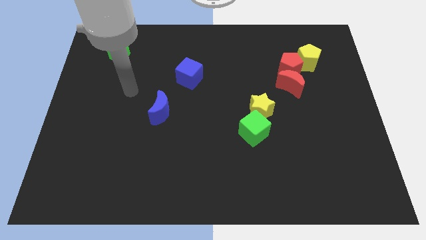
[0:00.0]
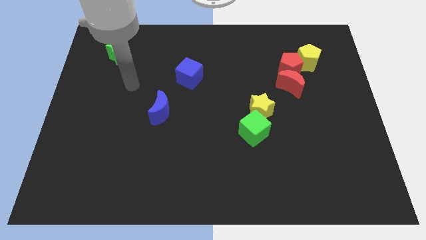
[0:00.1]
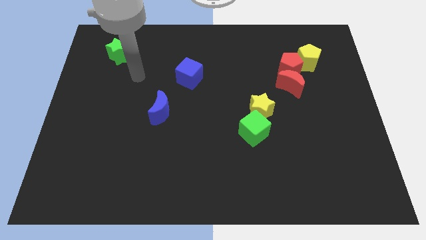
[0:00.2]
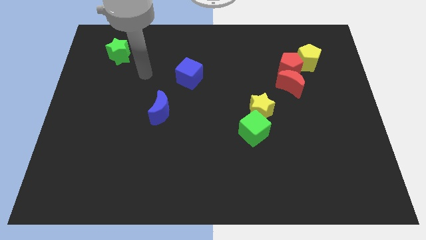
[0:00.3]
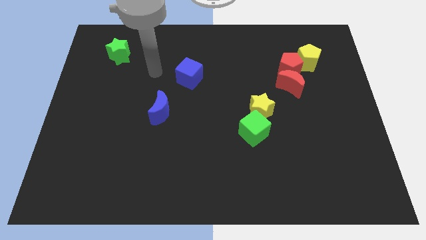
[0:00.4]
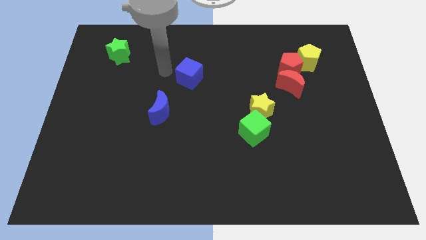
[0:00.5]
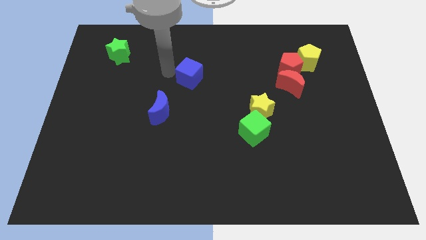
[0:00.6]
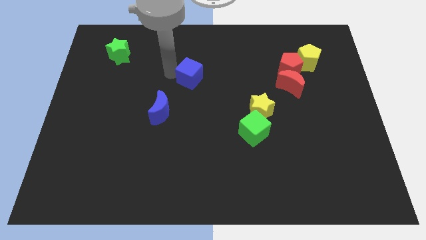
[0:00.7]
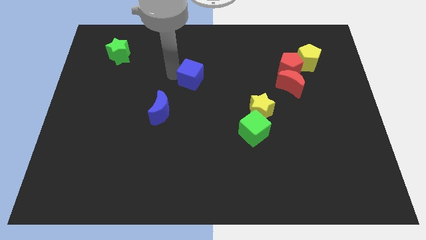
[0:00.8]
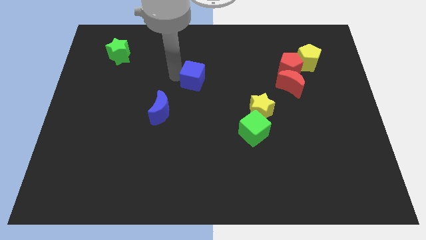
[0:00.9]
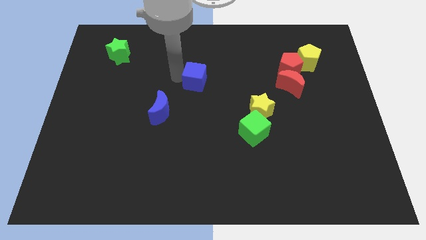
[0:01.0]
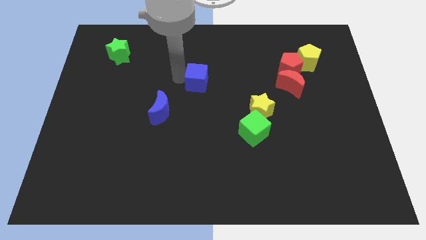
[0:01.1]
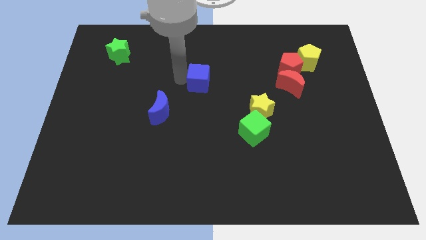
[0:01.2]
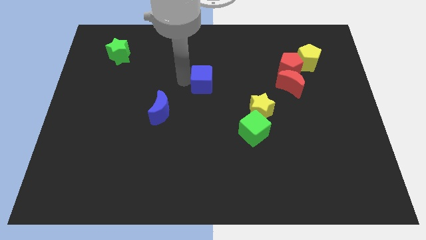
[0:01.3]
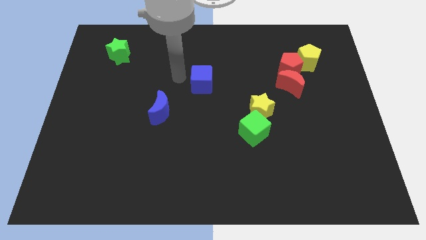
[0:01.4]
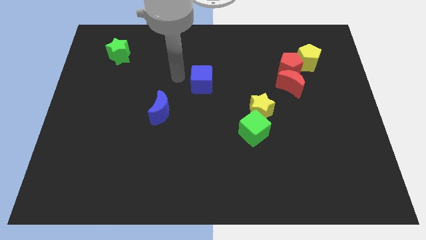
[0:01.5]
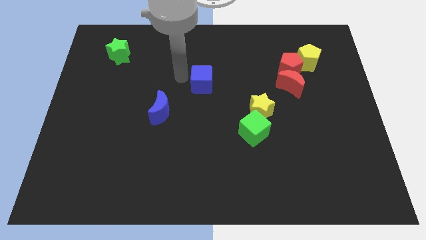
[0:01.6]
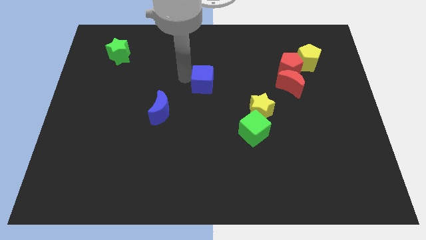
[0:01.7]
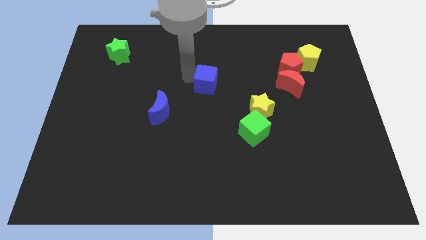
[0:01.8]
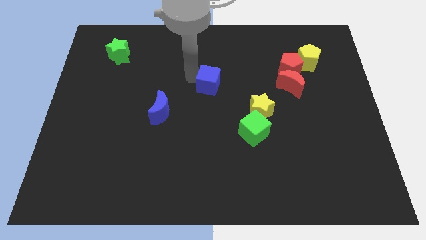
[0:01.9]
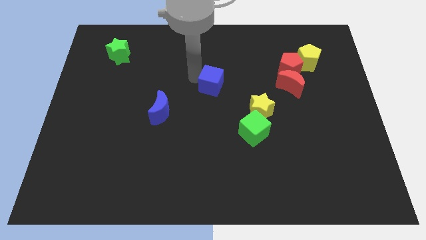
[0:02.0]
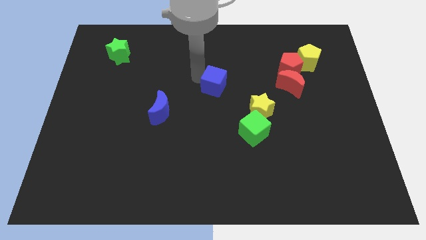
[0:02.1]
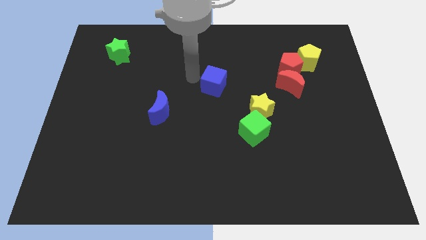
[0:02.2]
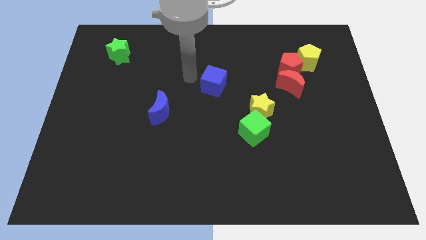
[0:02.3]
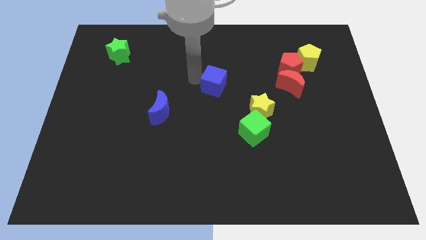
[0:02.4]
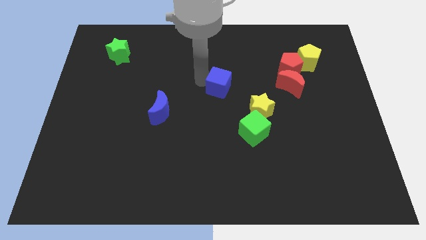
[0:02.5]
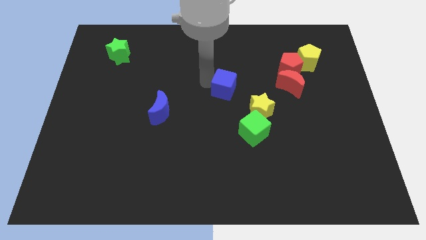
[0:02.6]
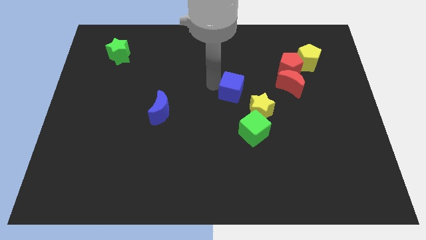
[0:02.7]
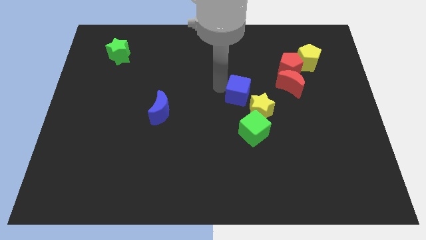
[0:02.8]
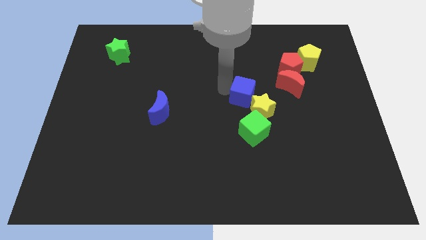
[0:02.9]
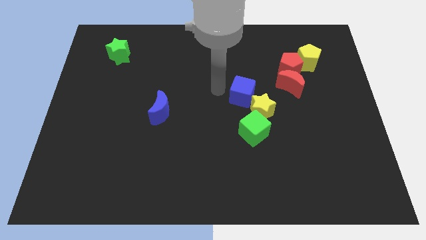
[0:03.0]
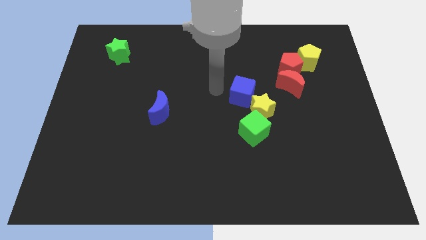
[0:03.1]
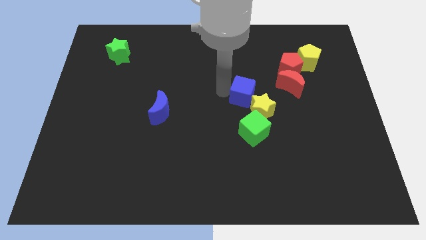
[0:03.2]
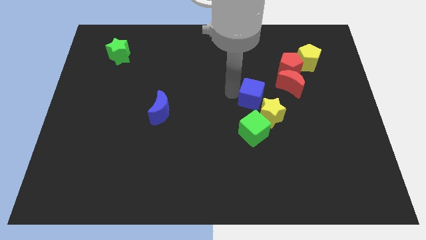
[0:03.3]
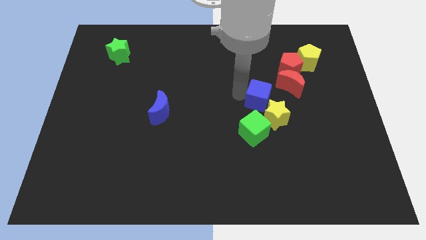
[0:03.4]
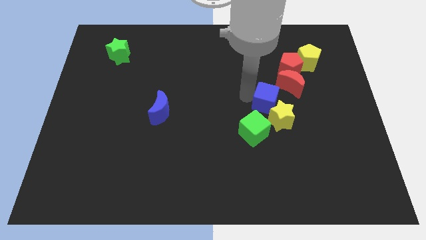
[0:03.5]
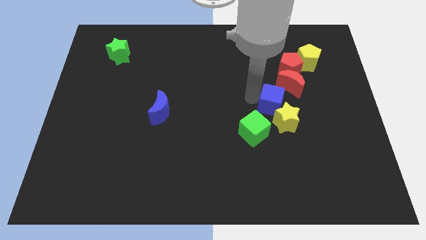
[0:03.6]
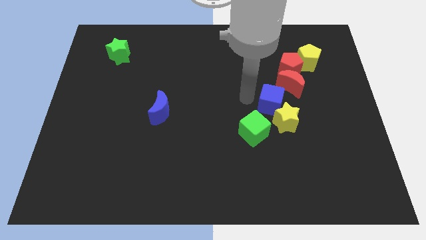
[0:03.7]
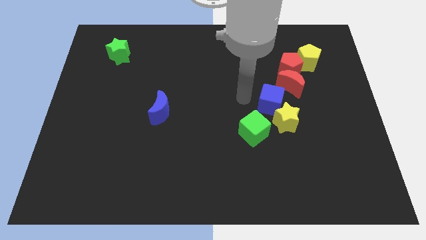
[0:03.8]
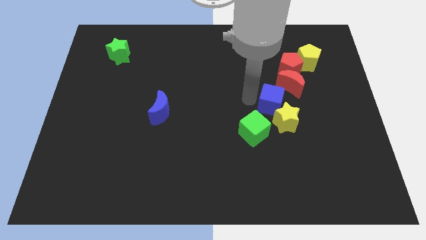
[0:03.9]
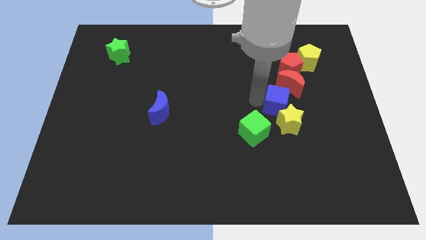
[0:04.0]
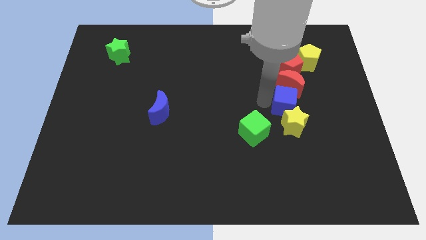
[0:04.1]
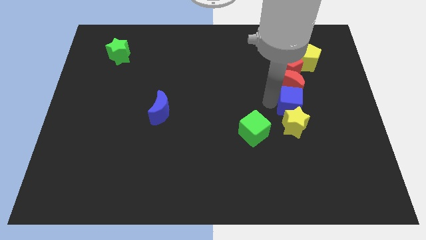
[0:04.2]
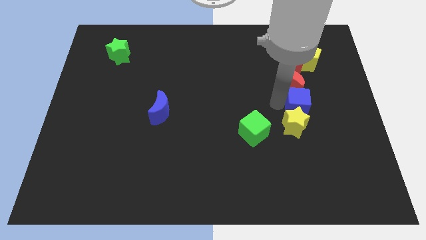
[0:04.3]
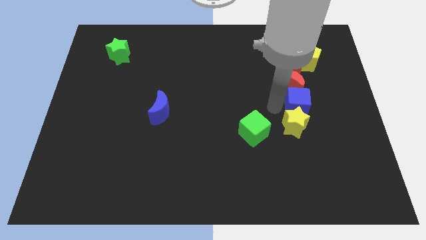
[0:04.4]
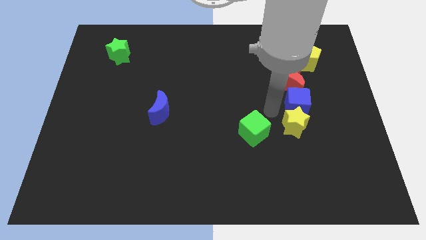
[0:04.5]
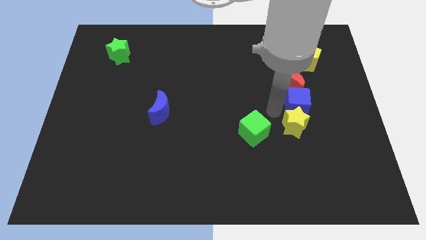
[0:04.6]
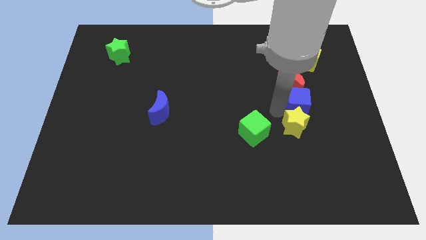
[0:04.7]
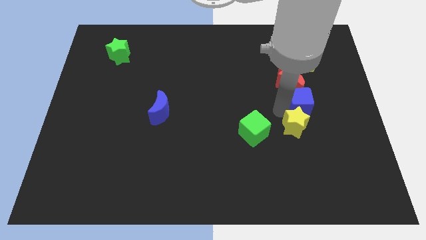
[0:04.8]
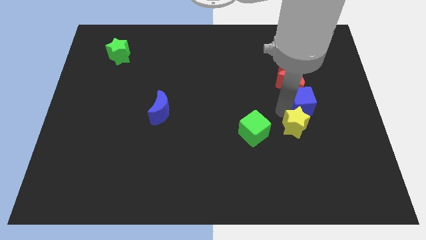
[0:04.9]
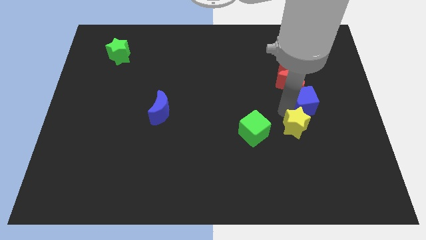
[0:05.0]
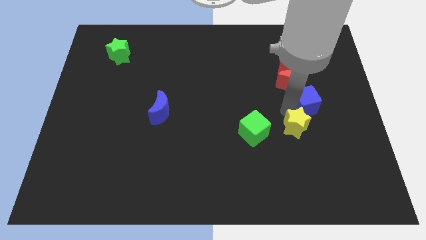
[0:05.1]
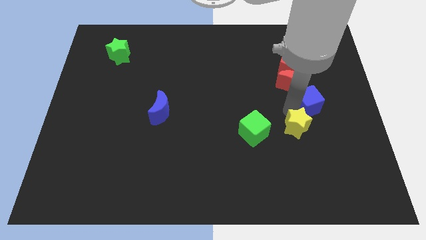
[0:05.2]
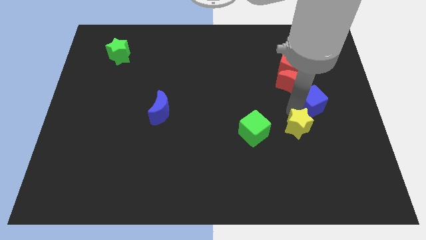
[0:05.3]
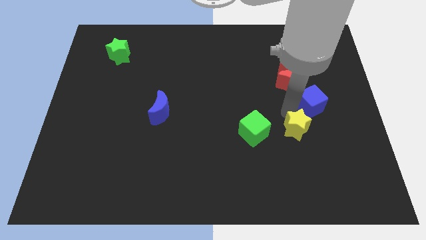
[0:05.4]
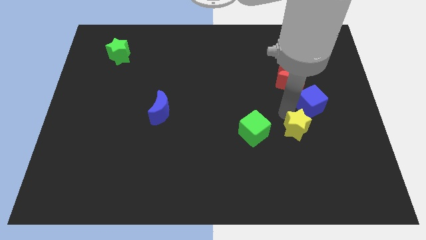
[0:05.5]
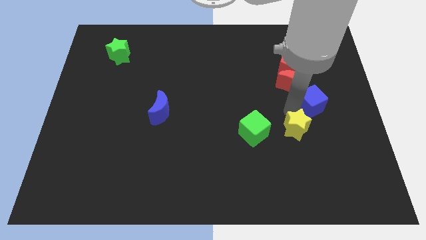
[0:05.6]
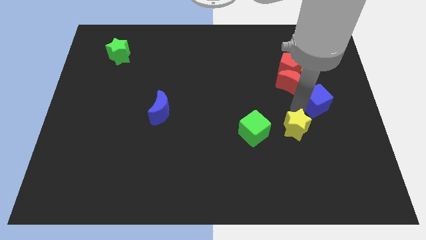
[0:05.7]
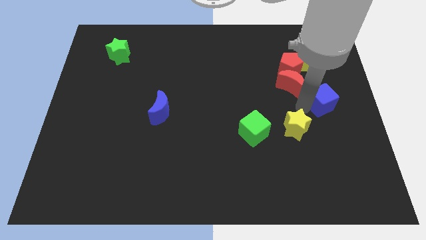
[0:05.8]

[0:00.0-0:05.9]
move the blue cube to the right side of the board
